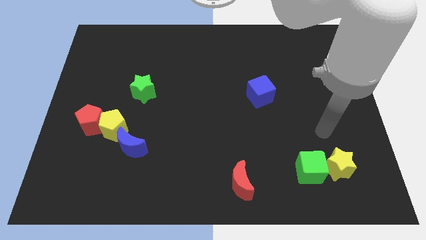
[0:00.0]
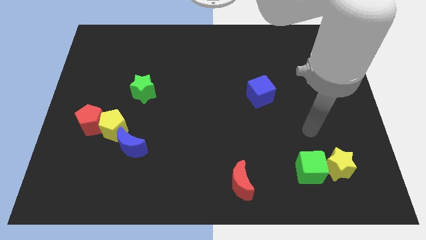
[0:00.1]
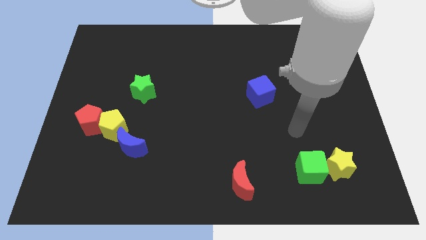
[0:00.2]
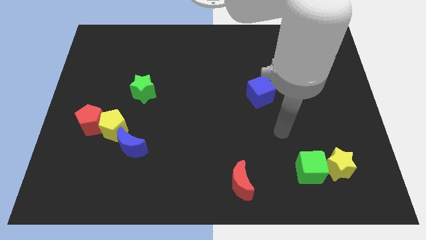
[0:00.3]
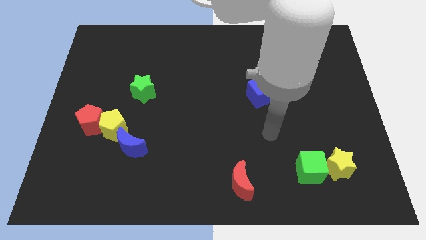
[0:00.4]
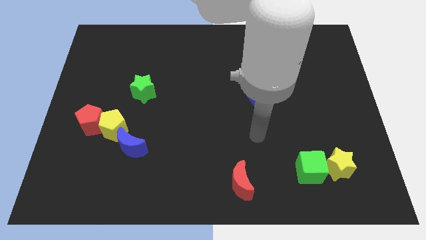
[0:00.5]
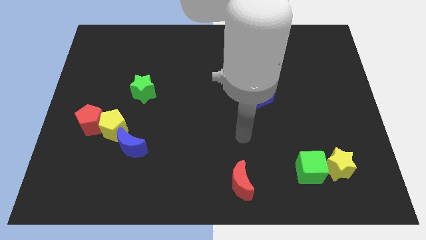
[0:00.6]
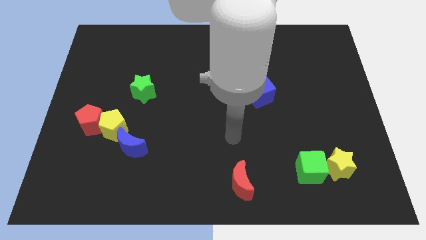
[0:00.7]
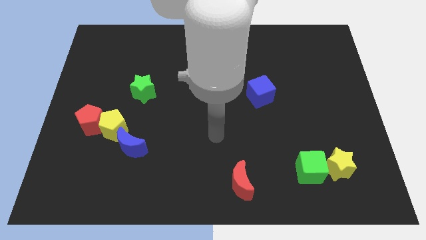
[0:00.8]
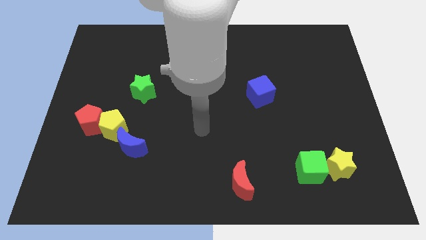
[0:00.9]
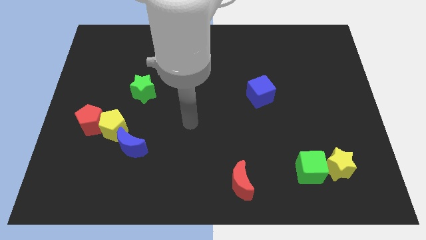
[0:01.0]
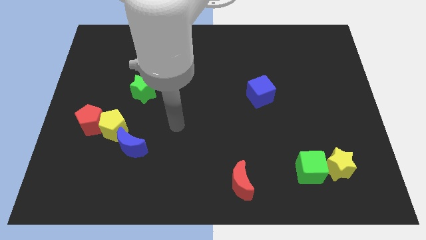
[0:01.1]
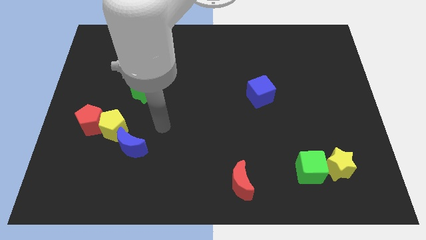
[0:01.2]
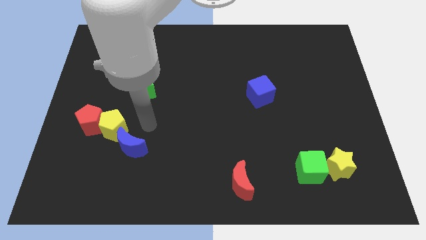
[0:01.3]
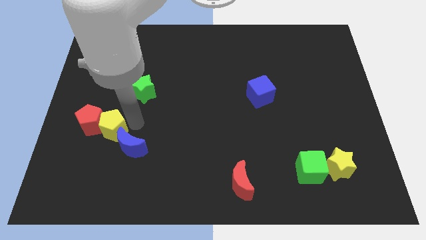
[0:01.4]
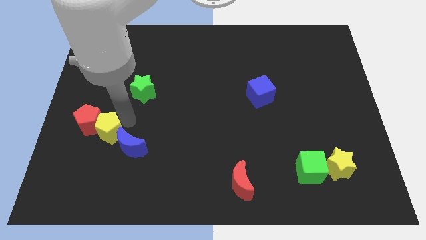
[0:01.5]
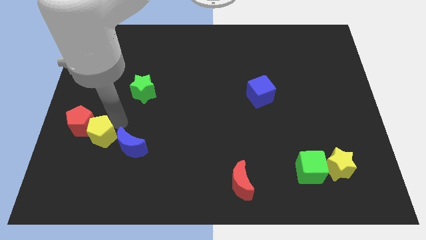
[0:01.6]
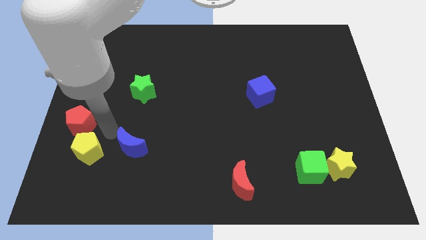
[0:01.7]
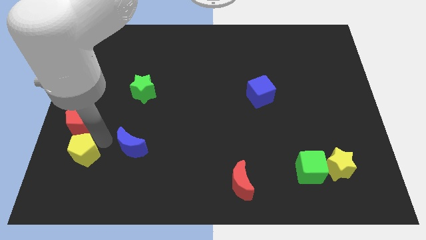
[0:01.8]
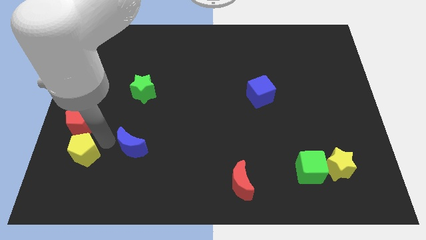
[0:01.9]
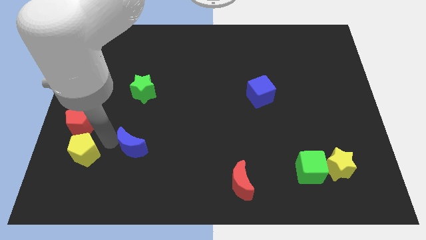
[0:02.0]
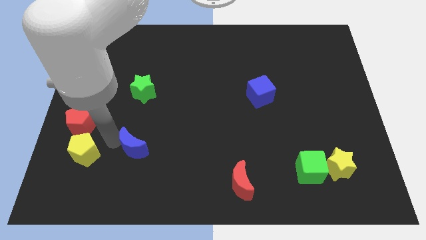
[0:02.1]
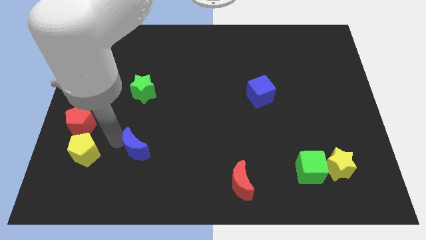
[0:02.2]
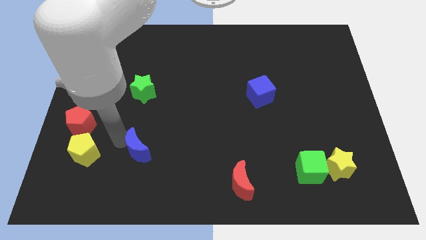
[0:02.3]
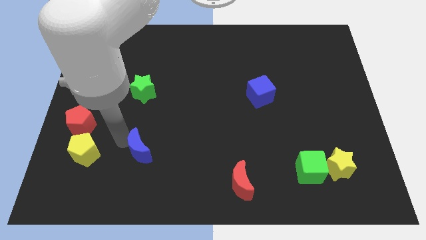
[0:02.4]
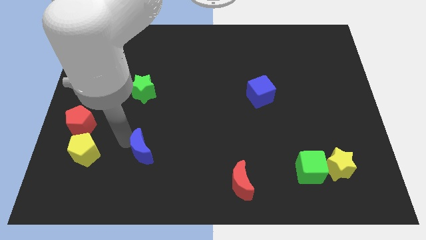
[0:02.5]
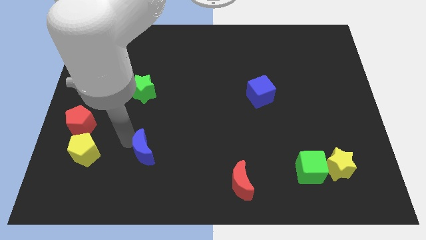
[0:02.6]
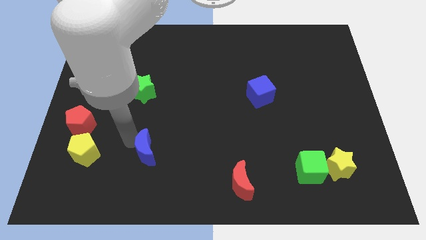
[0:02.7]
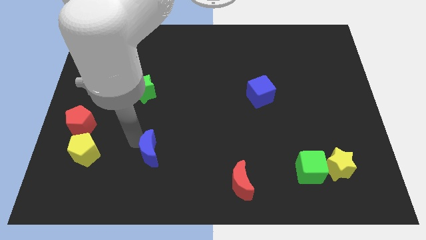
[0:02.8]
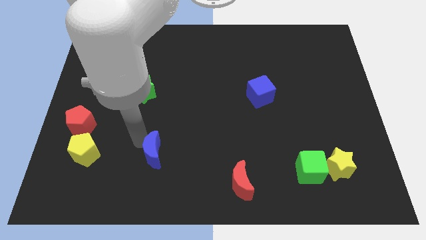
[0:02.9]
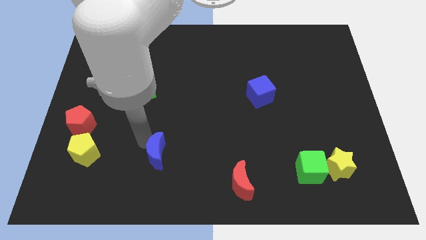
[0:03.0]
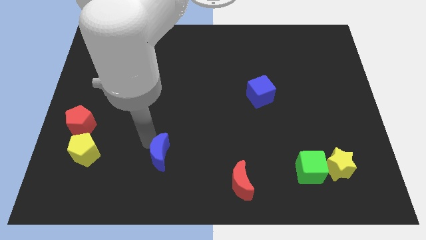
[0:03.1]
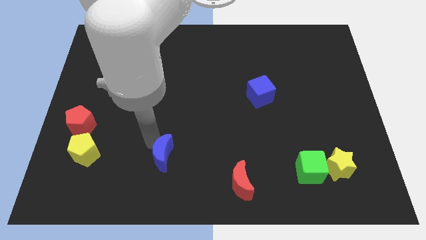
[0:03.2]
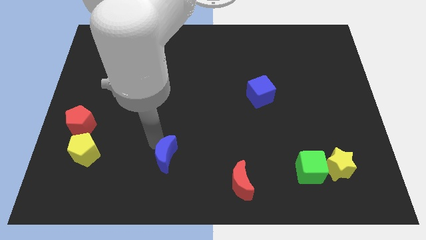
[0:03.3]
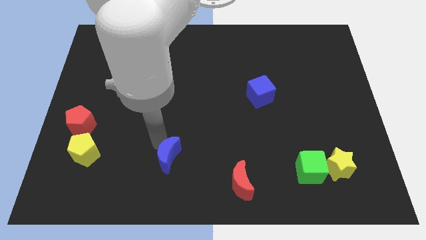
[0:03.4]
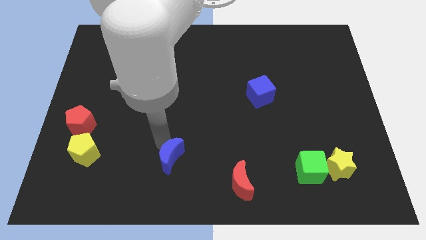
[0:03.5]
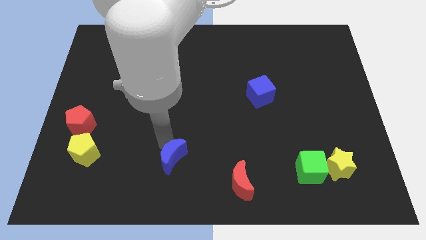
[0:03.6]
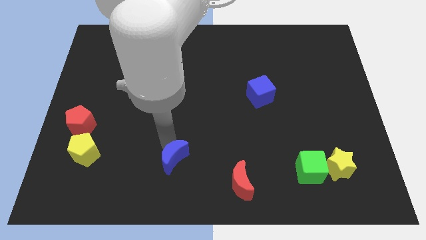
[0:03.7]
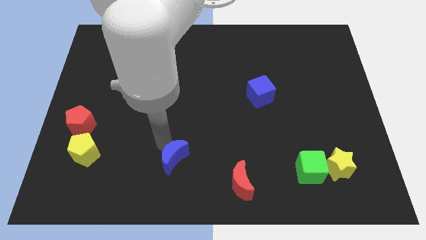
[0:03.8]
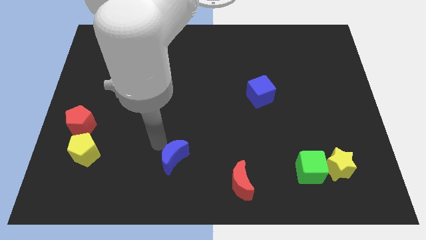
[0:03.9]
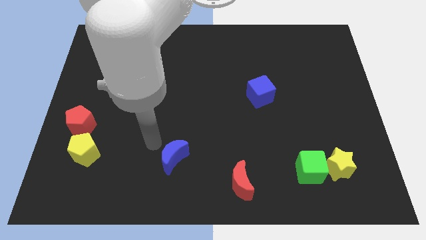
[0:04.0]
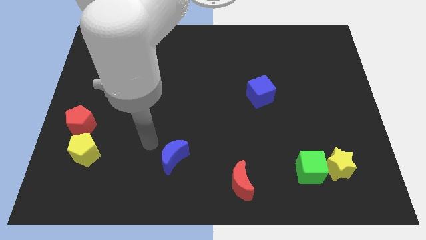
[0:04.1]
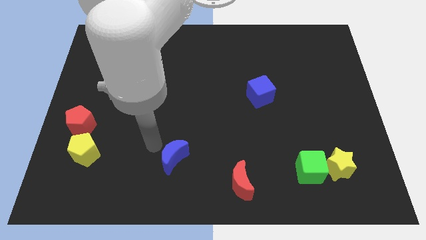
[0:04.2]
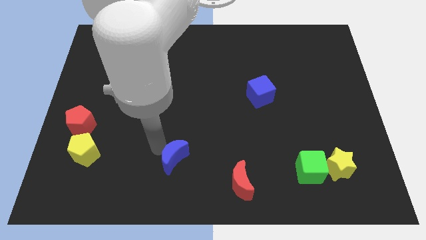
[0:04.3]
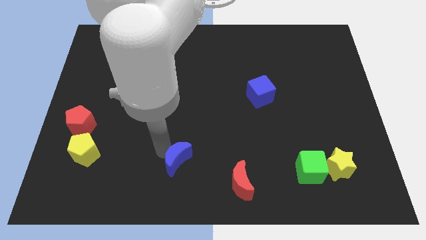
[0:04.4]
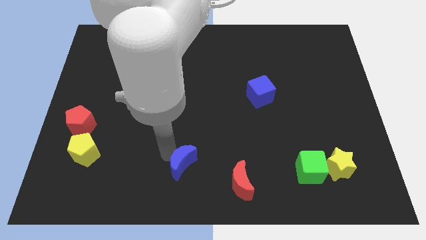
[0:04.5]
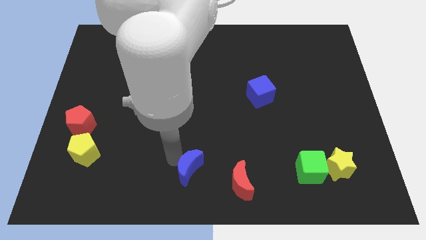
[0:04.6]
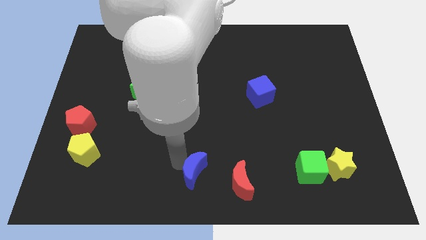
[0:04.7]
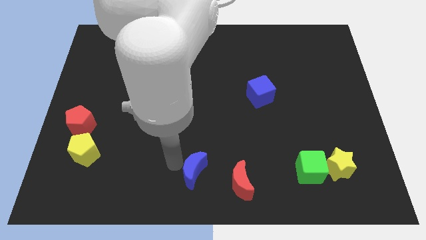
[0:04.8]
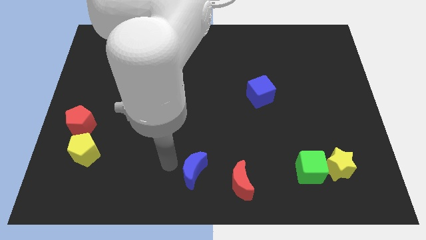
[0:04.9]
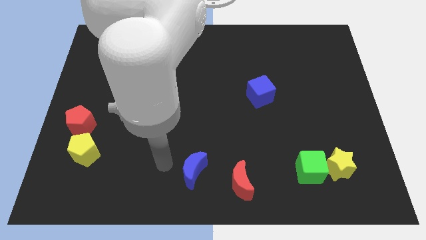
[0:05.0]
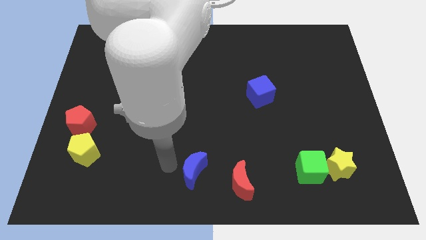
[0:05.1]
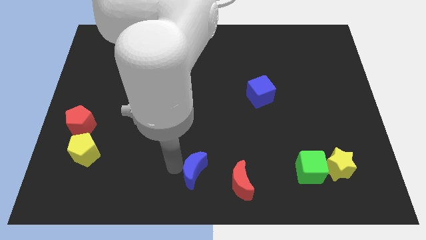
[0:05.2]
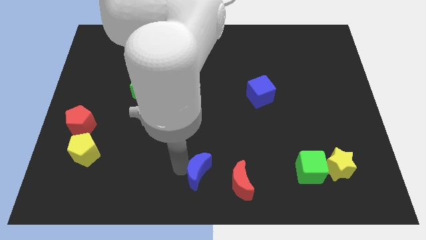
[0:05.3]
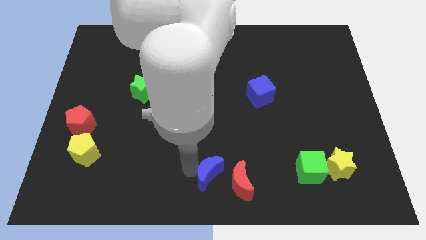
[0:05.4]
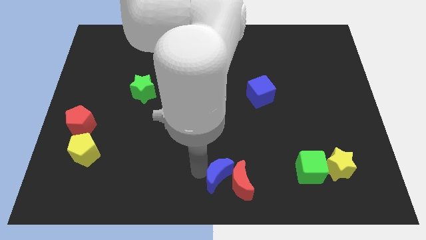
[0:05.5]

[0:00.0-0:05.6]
slide the blue moon close to the red moon

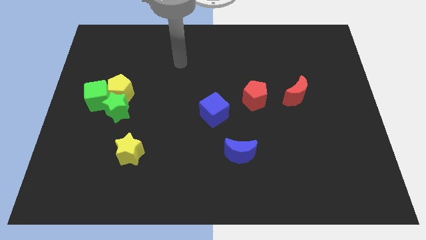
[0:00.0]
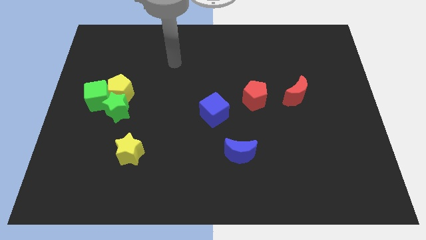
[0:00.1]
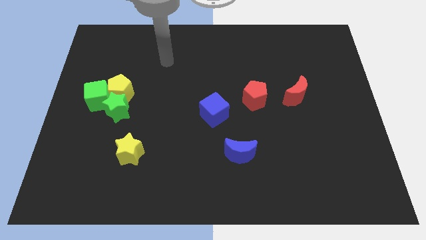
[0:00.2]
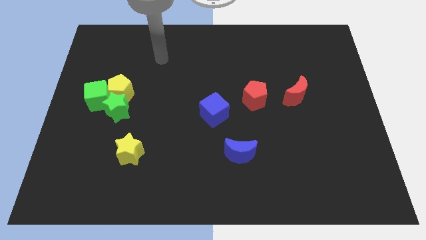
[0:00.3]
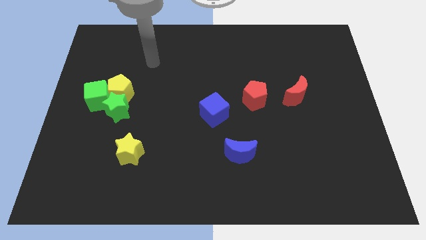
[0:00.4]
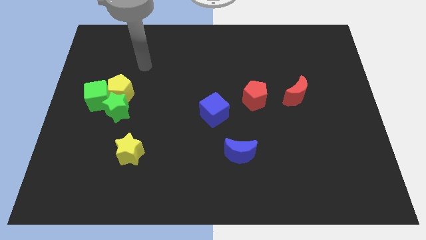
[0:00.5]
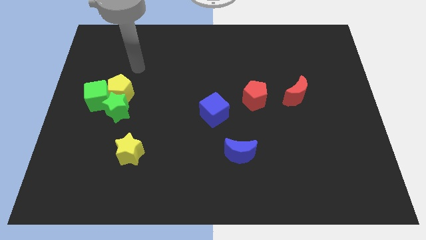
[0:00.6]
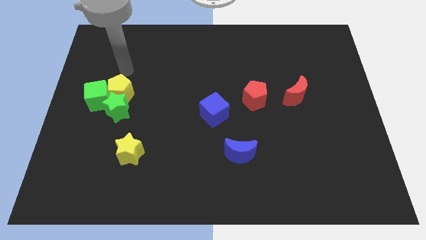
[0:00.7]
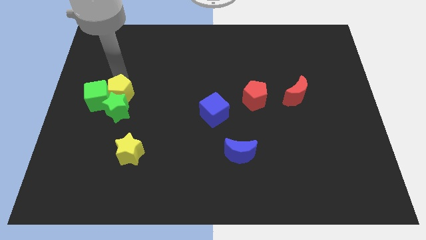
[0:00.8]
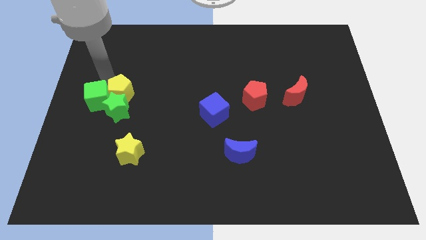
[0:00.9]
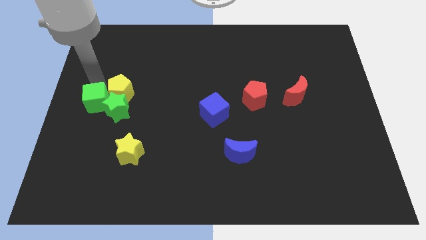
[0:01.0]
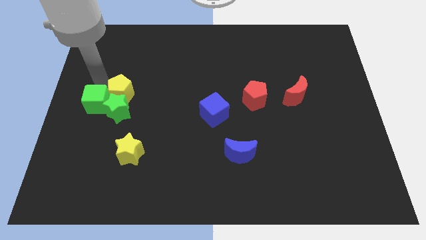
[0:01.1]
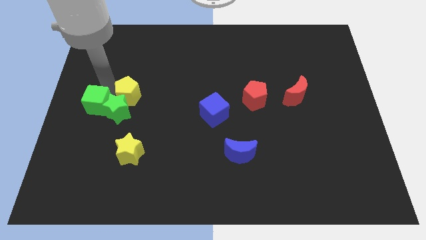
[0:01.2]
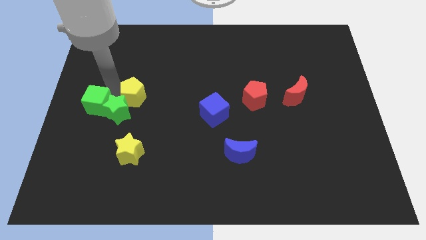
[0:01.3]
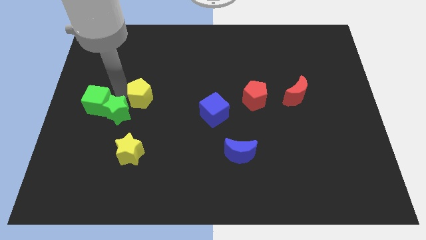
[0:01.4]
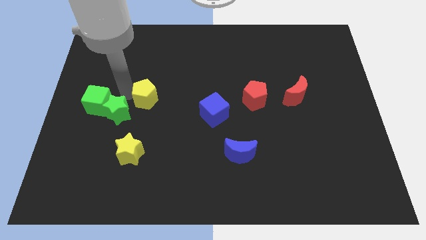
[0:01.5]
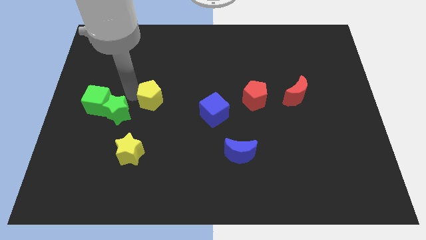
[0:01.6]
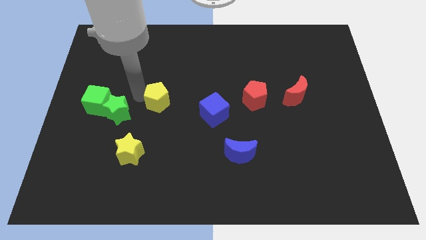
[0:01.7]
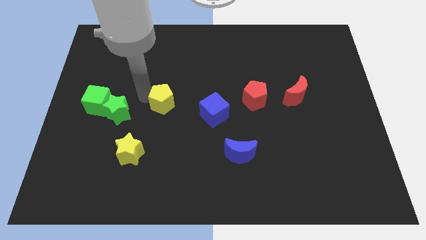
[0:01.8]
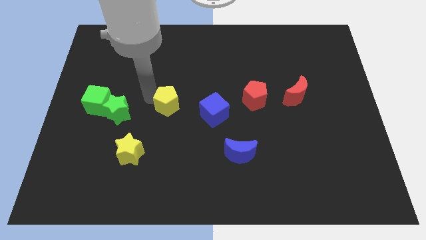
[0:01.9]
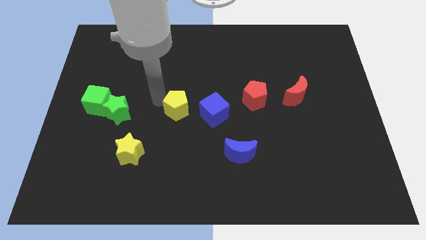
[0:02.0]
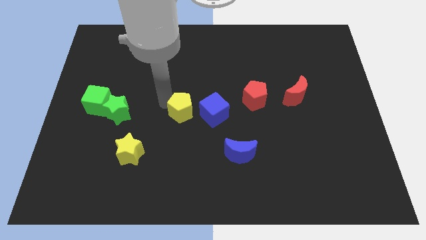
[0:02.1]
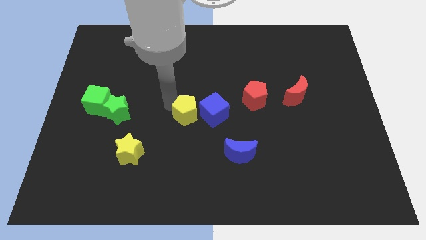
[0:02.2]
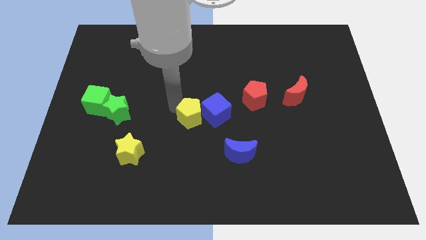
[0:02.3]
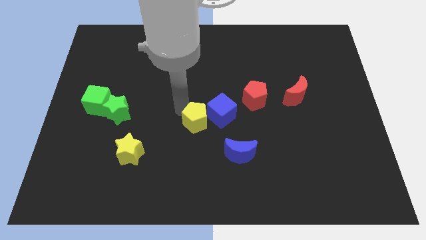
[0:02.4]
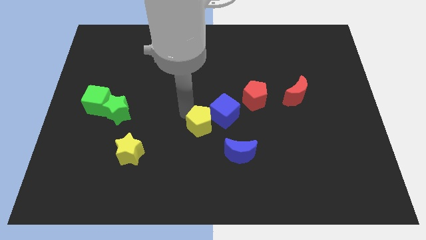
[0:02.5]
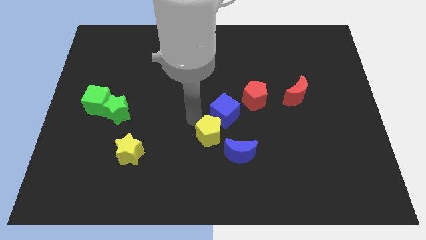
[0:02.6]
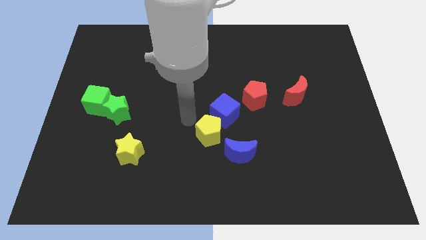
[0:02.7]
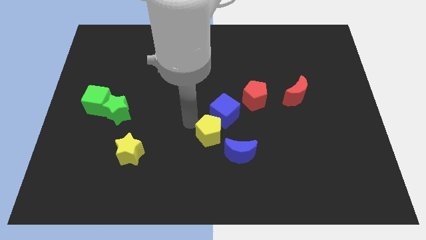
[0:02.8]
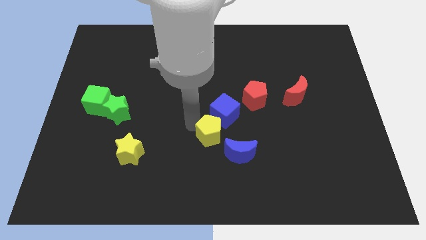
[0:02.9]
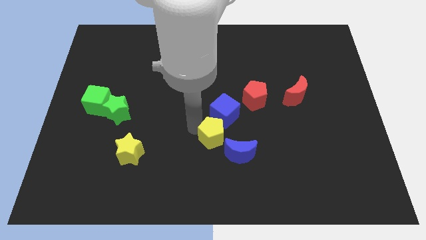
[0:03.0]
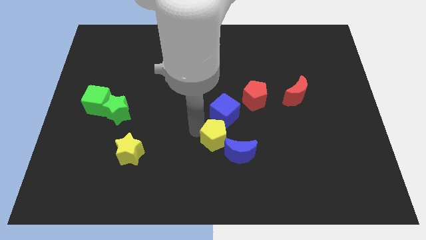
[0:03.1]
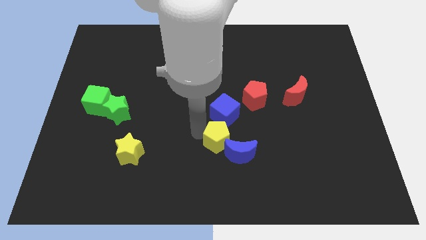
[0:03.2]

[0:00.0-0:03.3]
move the yellow pentagon next to the blue moon
